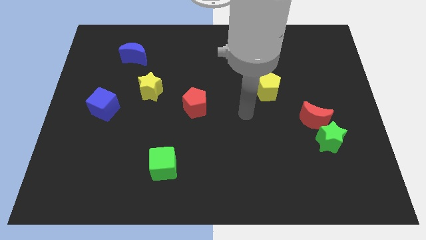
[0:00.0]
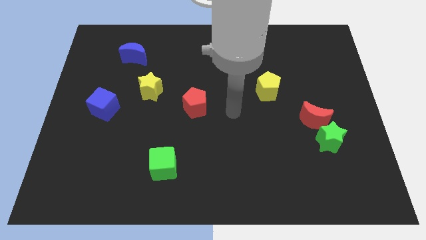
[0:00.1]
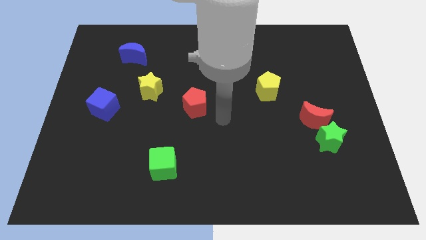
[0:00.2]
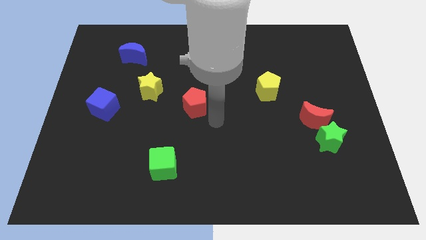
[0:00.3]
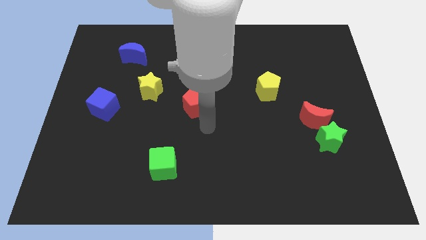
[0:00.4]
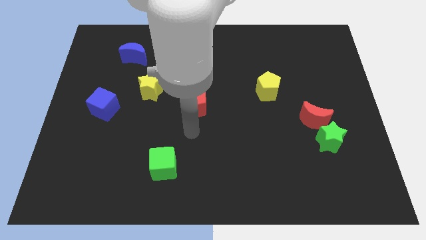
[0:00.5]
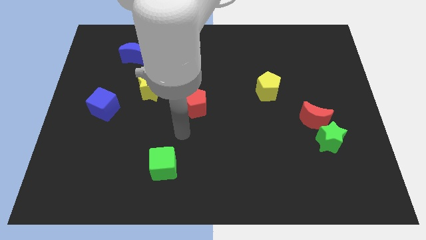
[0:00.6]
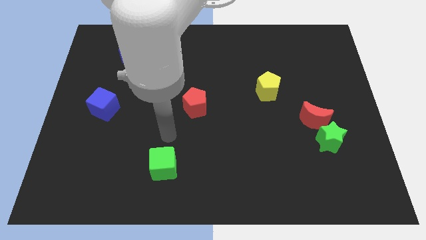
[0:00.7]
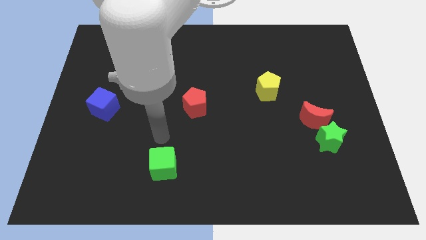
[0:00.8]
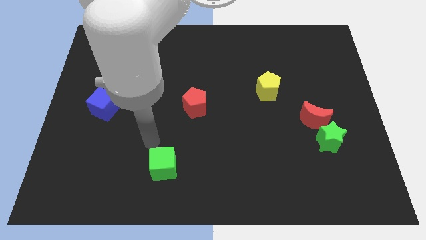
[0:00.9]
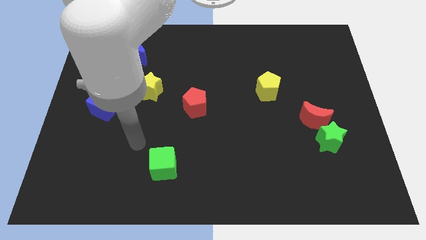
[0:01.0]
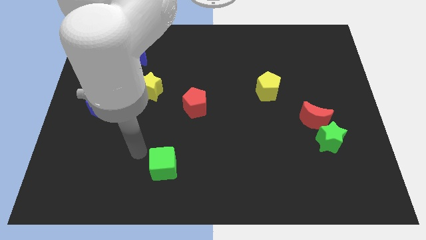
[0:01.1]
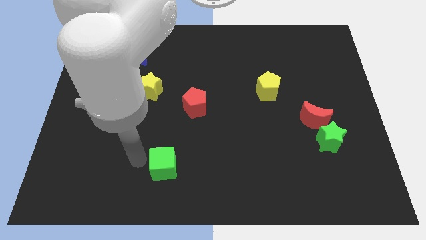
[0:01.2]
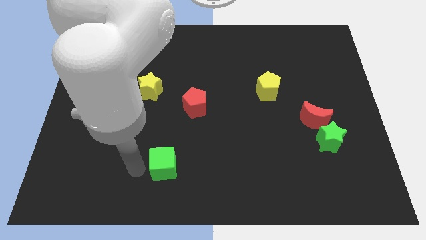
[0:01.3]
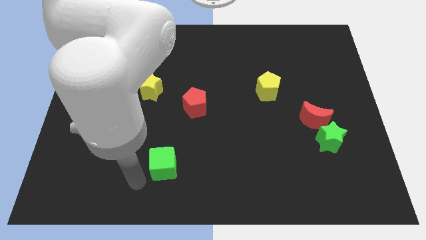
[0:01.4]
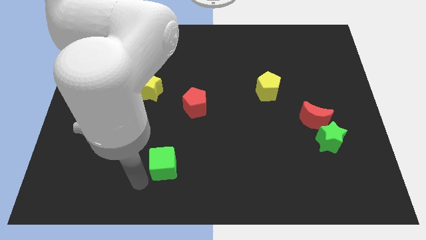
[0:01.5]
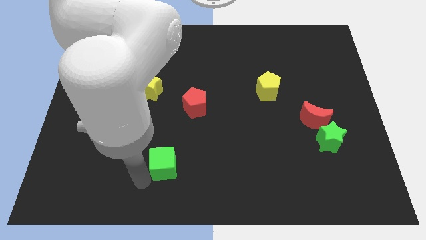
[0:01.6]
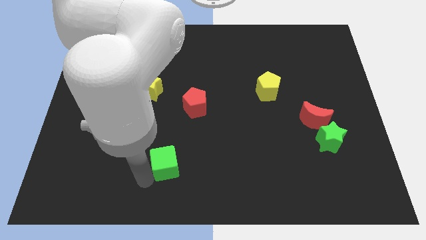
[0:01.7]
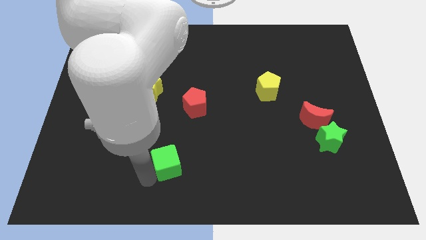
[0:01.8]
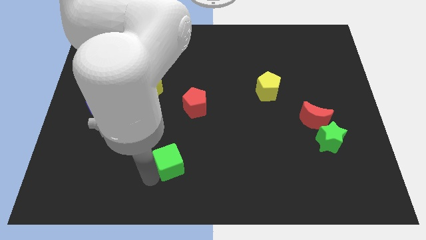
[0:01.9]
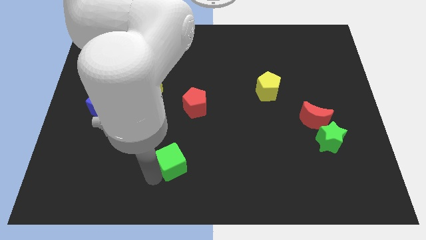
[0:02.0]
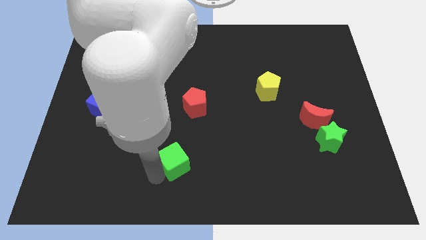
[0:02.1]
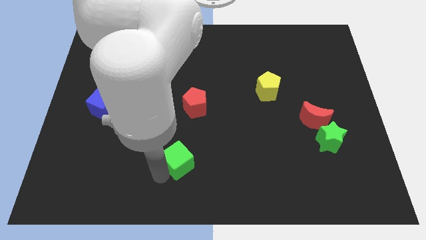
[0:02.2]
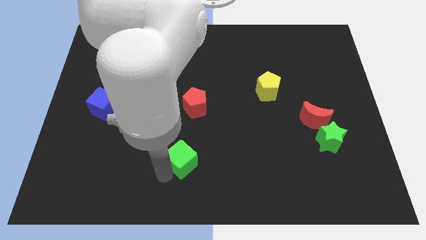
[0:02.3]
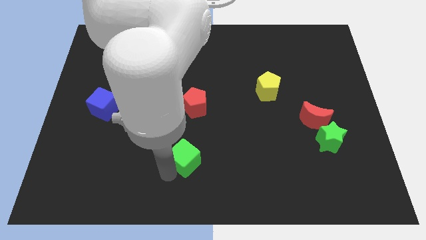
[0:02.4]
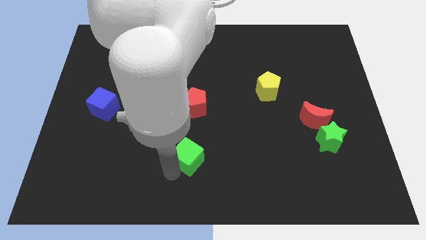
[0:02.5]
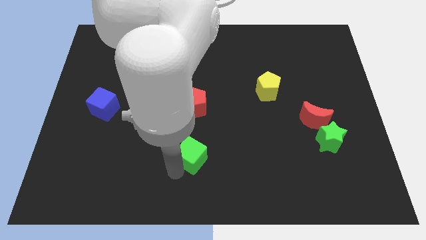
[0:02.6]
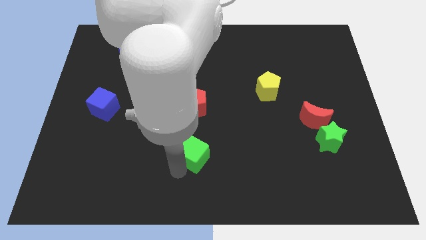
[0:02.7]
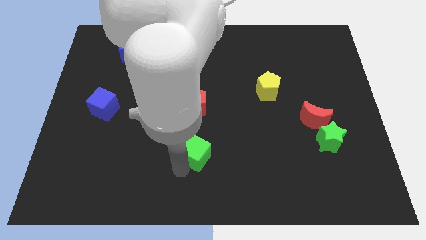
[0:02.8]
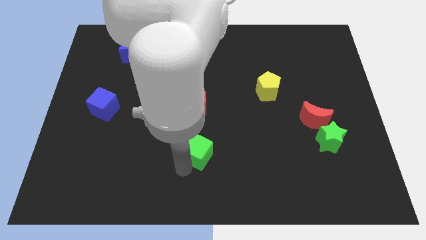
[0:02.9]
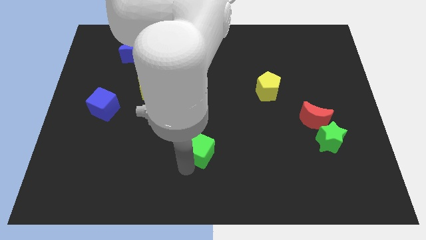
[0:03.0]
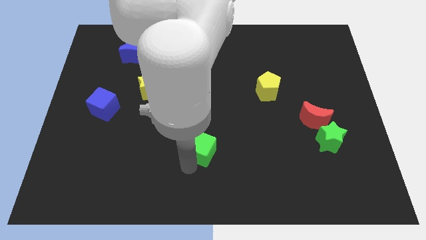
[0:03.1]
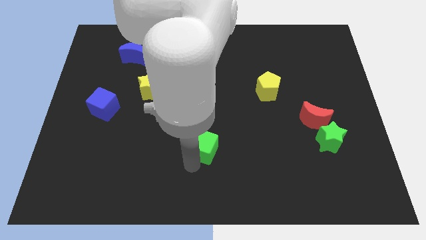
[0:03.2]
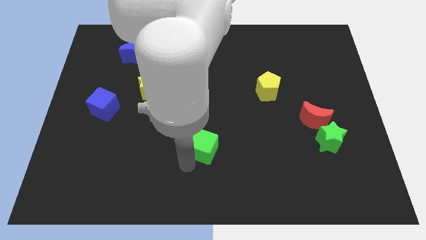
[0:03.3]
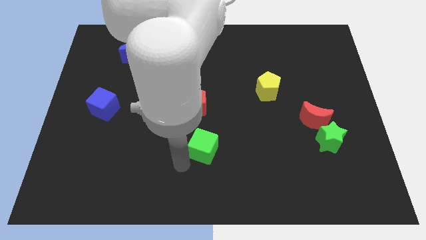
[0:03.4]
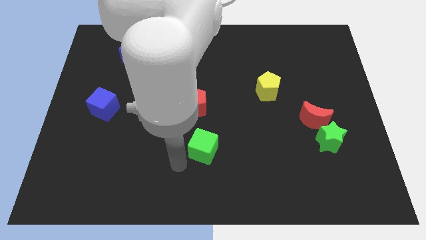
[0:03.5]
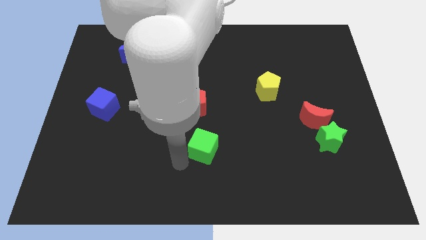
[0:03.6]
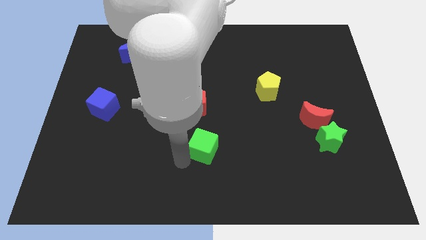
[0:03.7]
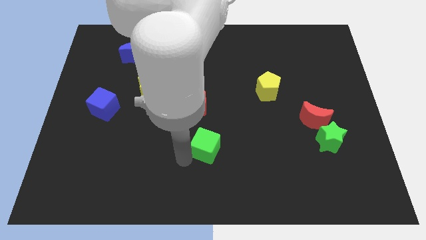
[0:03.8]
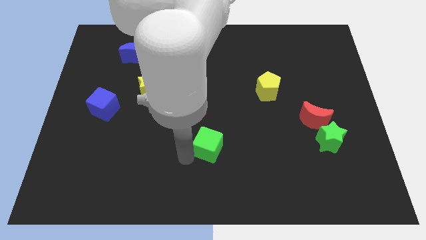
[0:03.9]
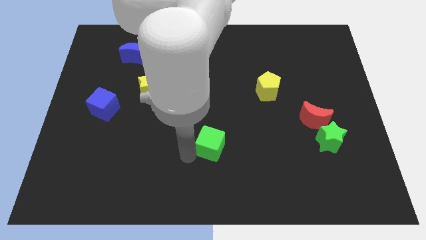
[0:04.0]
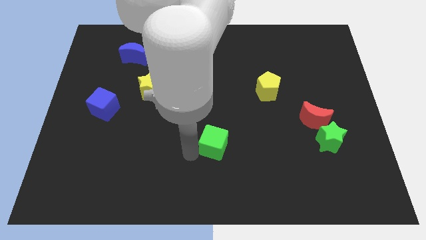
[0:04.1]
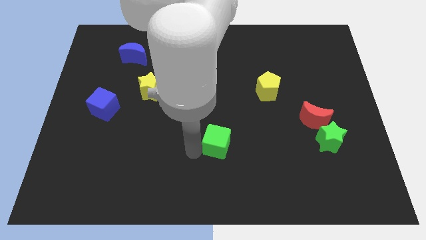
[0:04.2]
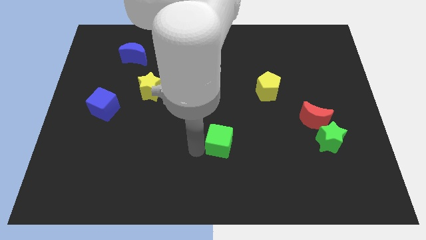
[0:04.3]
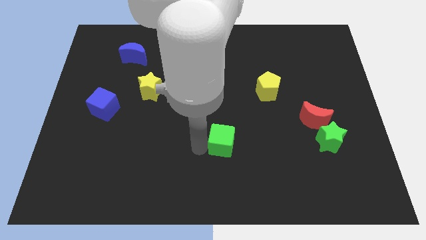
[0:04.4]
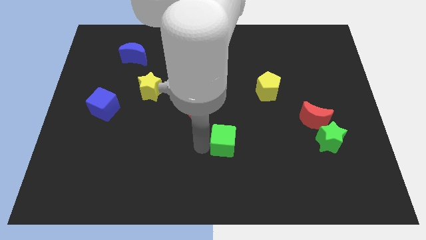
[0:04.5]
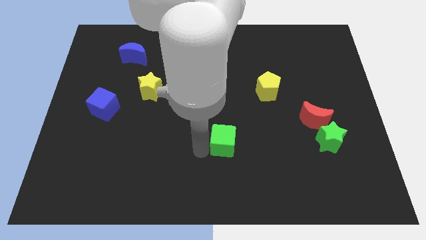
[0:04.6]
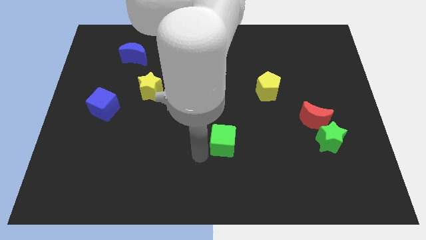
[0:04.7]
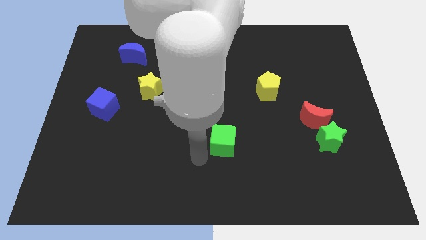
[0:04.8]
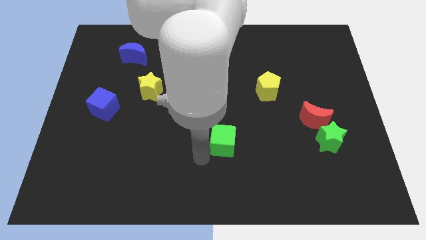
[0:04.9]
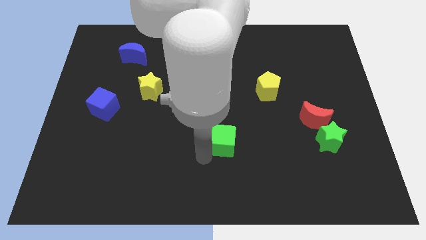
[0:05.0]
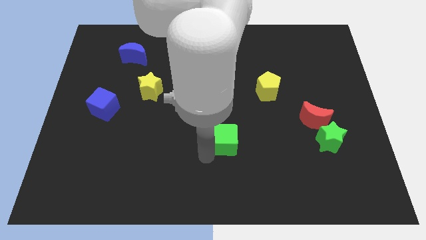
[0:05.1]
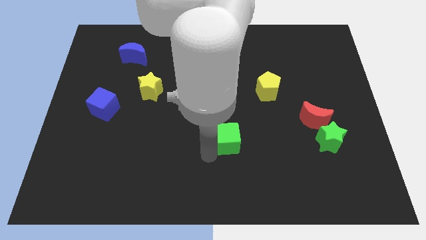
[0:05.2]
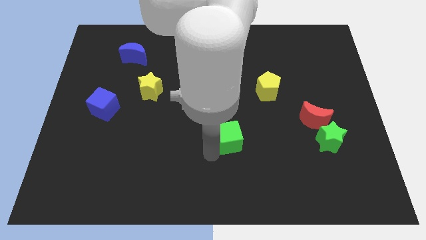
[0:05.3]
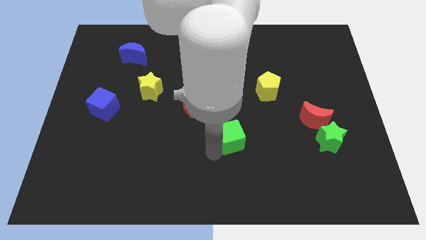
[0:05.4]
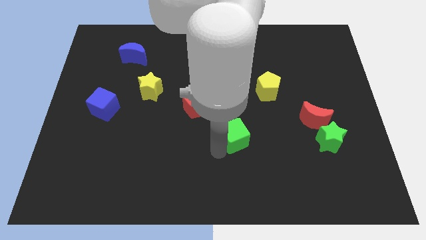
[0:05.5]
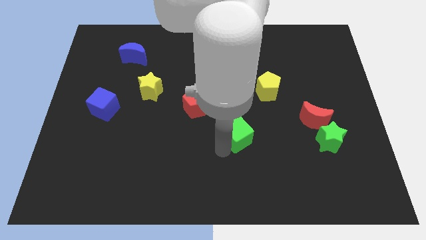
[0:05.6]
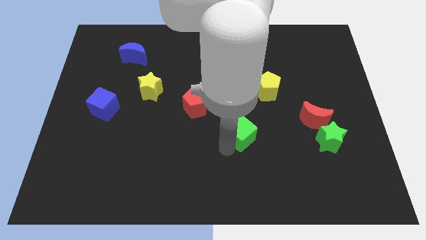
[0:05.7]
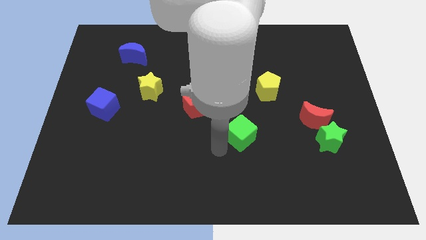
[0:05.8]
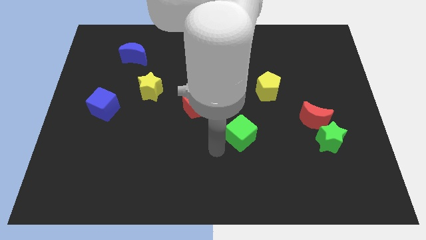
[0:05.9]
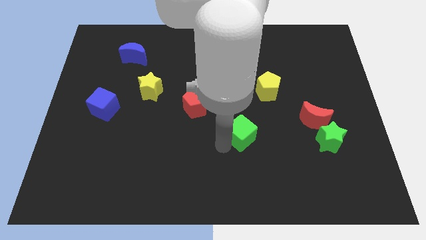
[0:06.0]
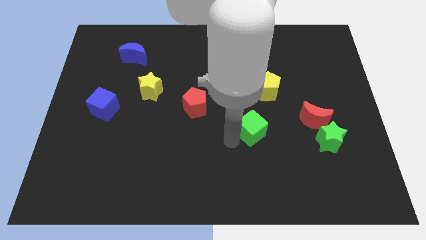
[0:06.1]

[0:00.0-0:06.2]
slide the green cube just left of the red moon

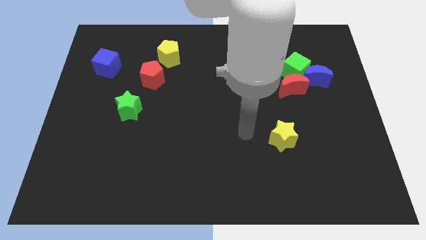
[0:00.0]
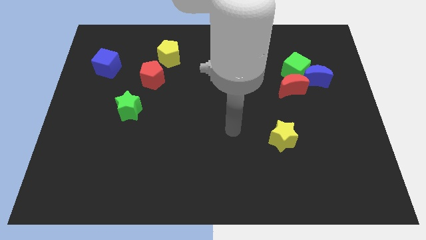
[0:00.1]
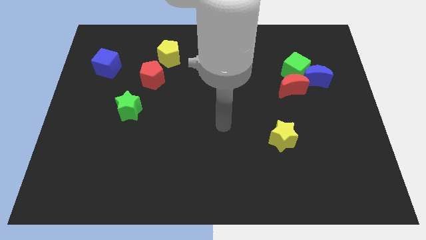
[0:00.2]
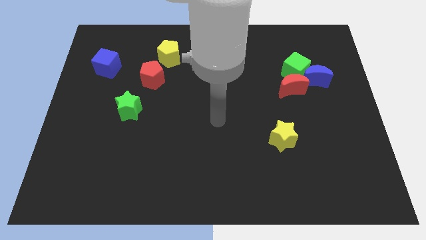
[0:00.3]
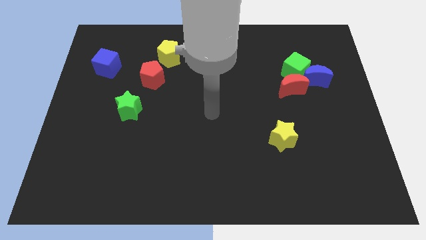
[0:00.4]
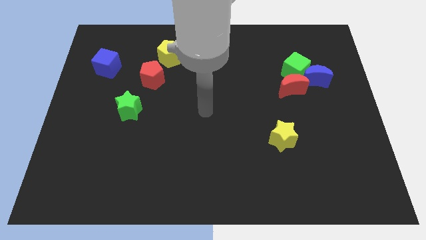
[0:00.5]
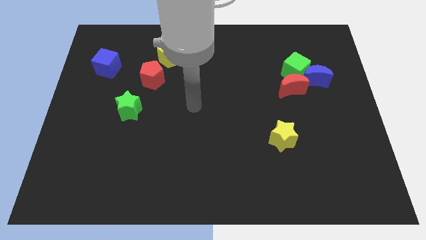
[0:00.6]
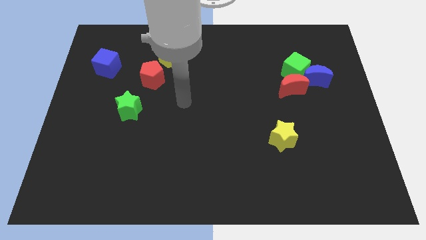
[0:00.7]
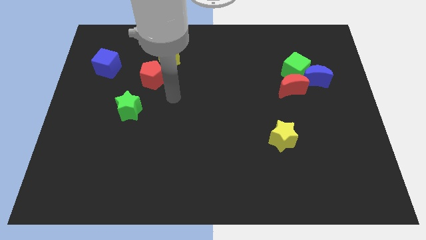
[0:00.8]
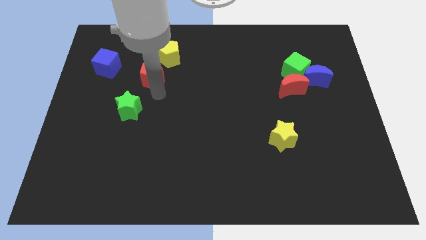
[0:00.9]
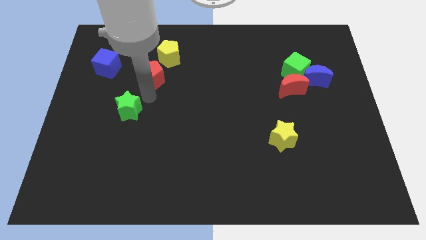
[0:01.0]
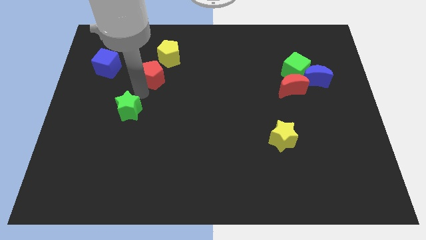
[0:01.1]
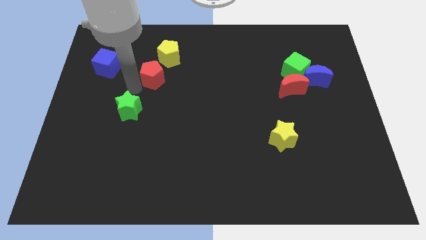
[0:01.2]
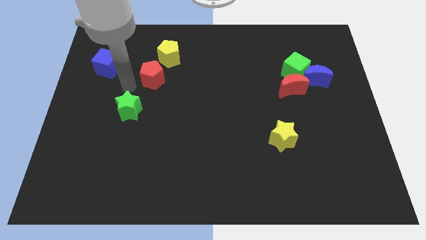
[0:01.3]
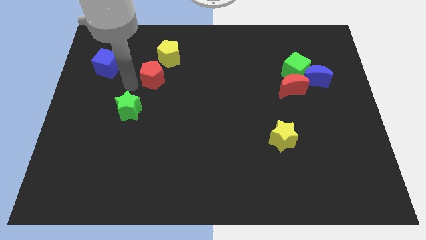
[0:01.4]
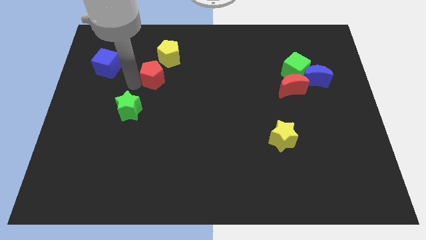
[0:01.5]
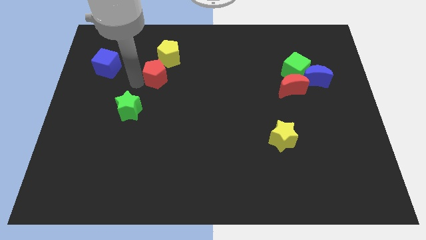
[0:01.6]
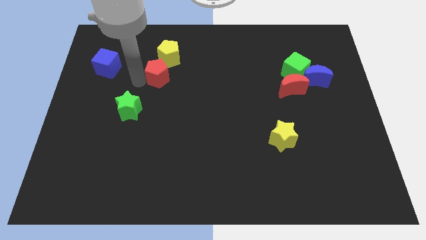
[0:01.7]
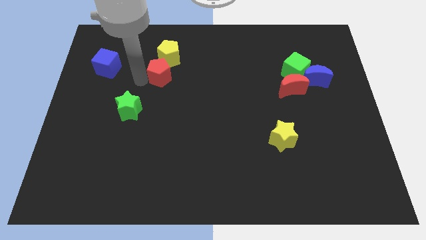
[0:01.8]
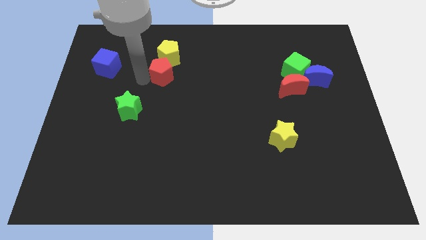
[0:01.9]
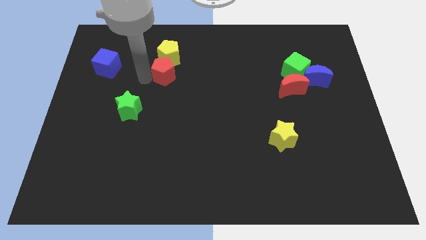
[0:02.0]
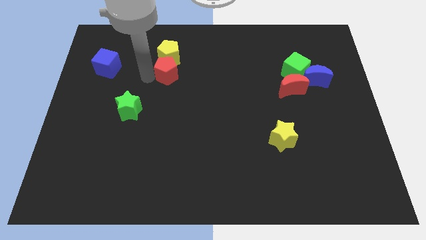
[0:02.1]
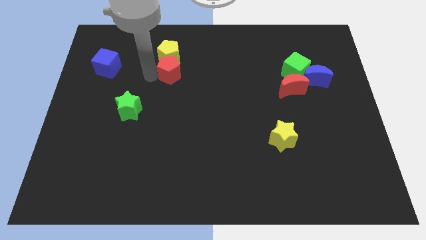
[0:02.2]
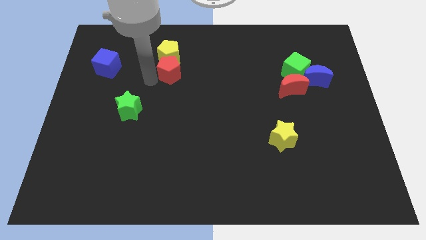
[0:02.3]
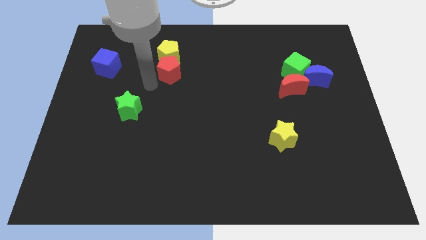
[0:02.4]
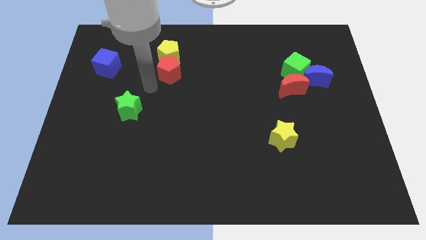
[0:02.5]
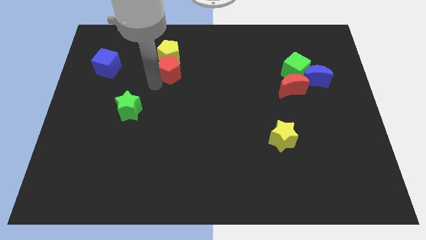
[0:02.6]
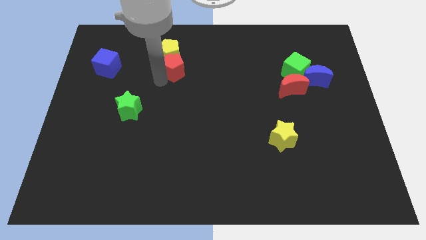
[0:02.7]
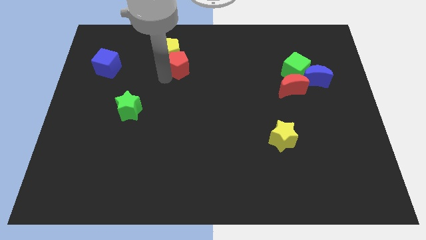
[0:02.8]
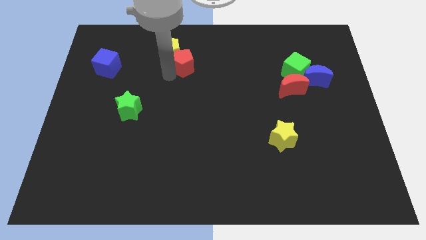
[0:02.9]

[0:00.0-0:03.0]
move the red pentagon to the right of the yellow pentagon
